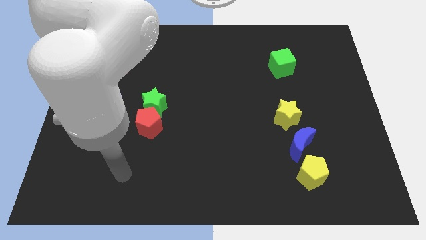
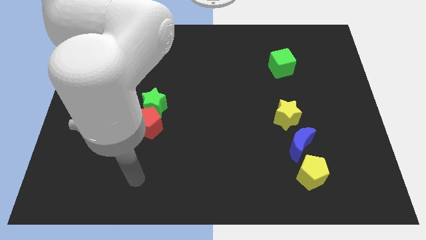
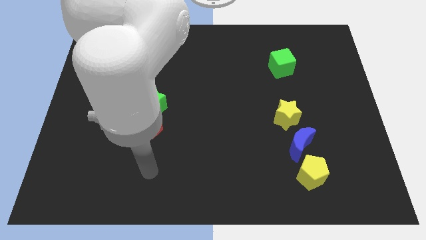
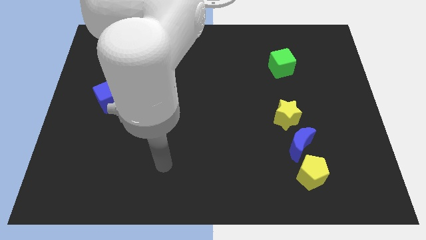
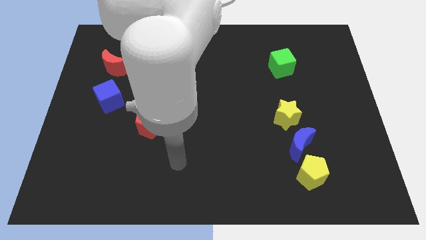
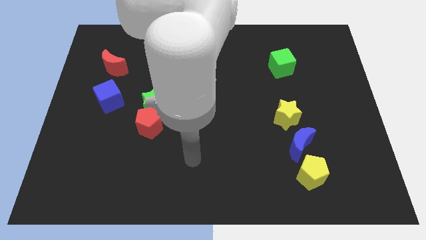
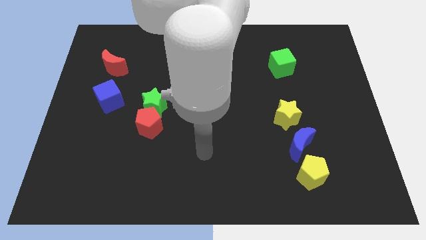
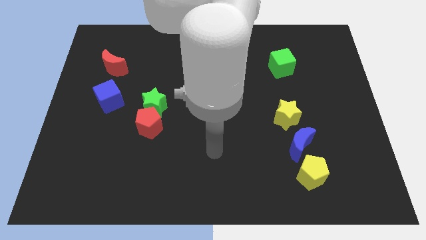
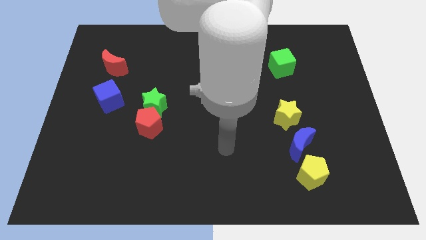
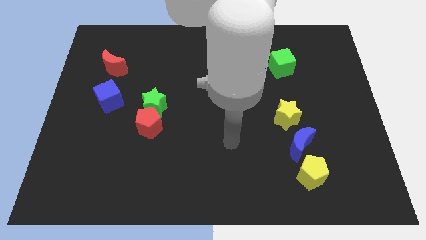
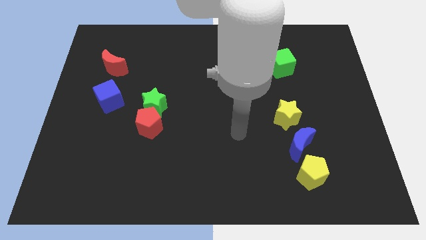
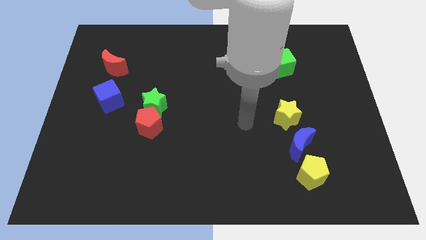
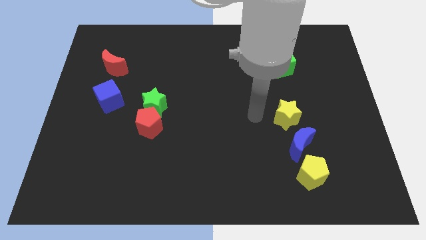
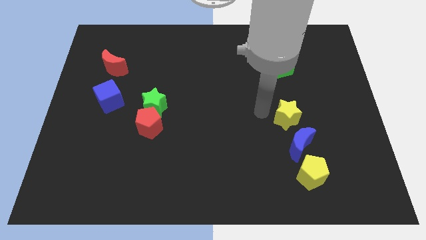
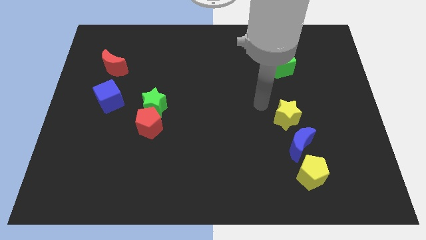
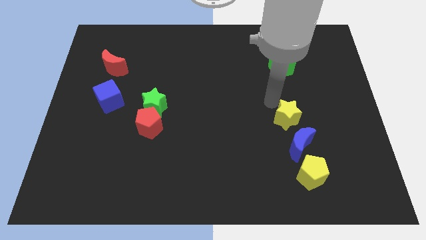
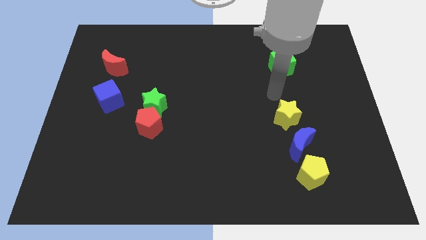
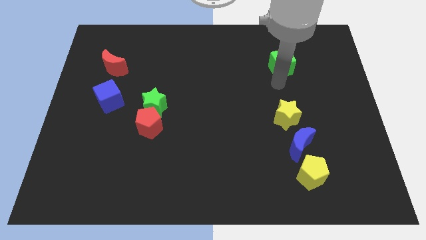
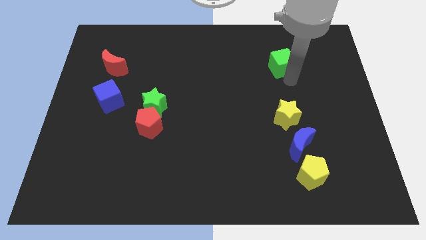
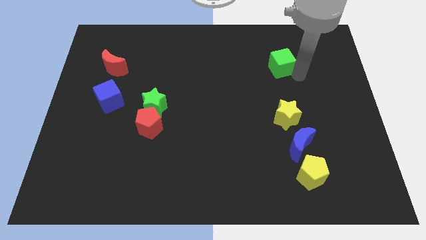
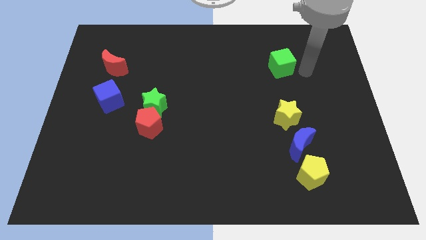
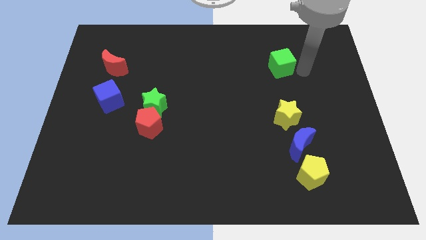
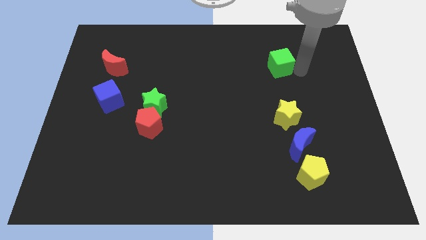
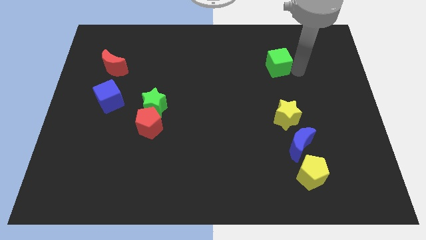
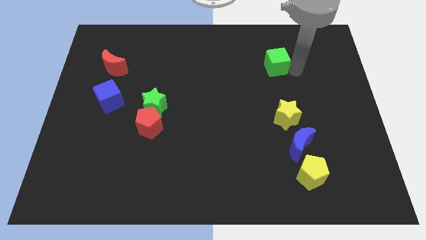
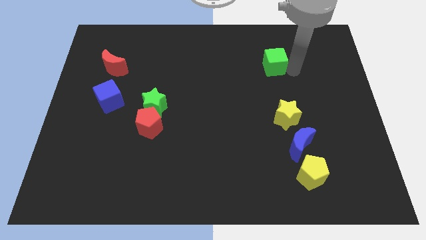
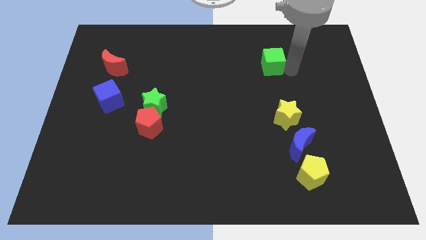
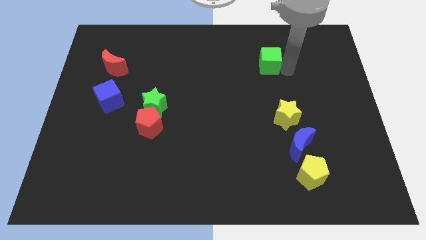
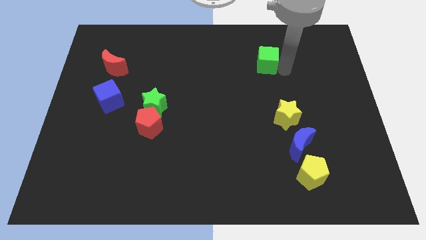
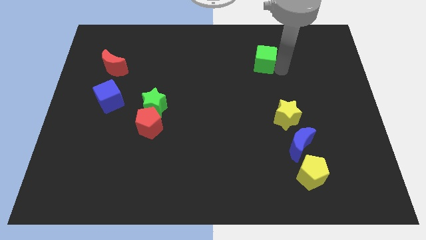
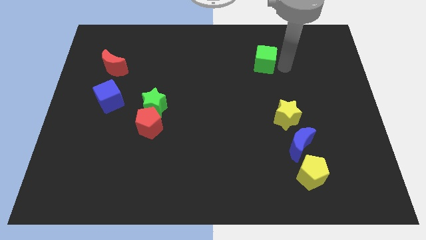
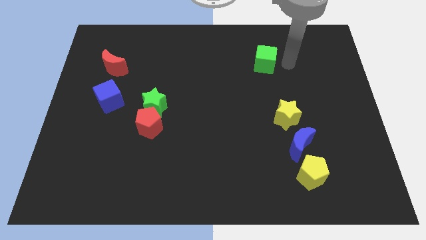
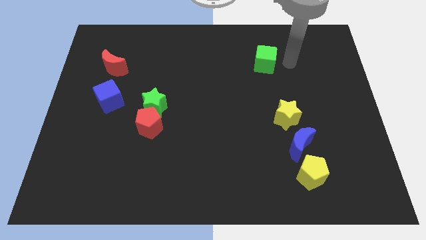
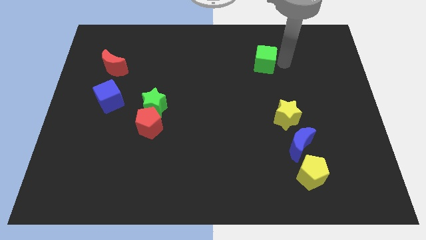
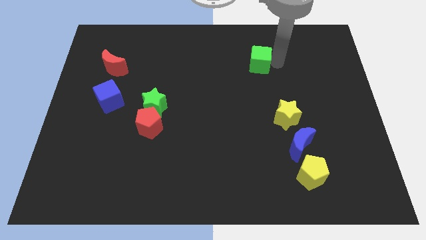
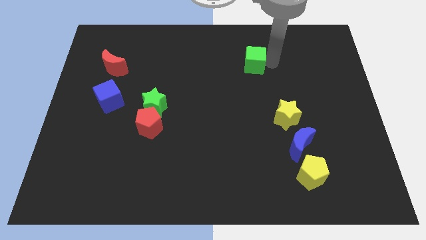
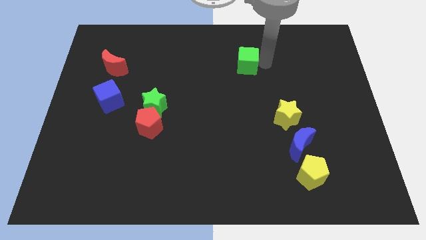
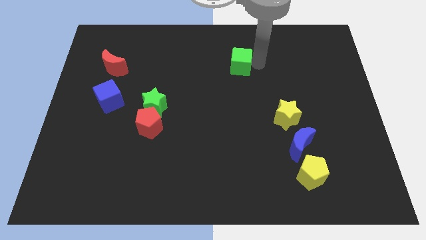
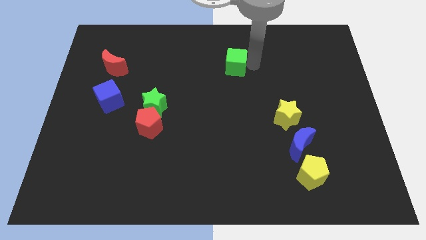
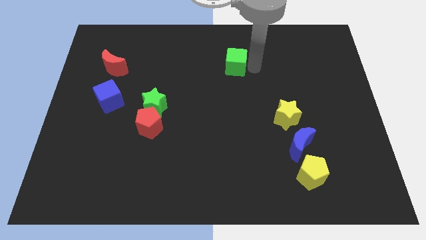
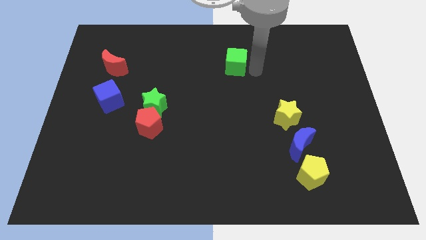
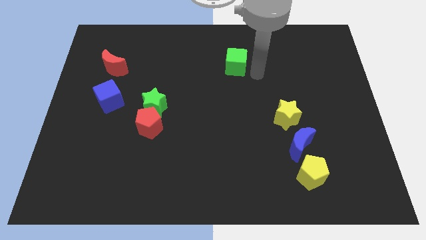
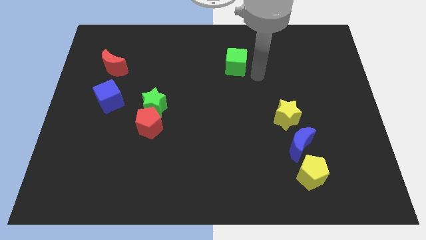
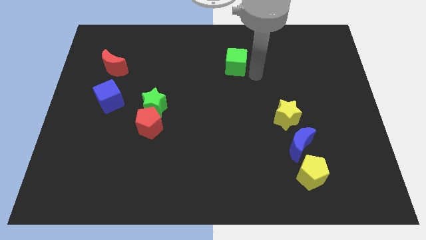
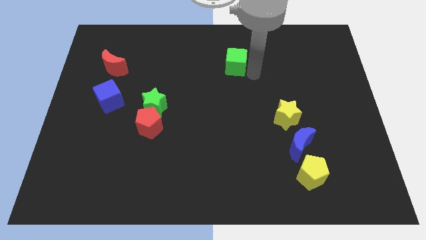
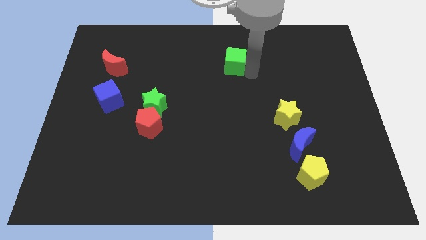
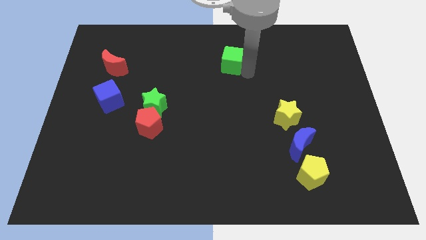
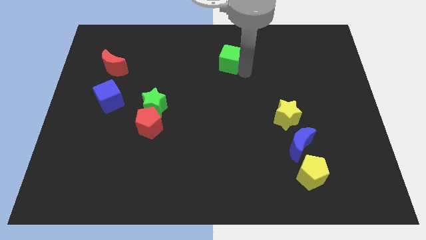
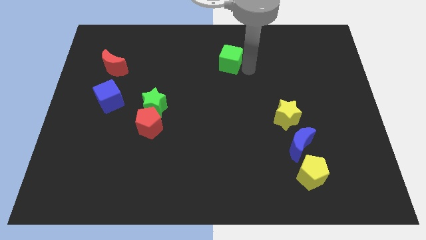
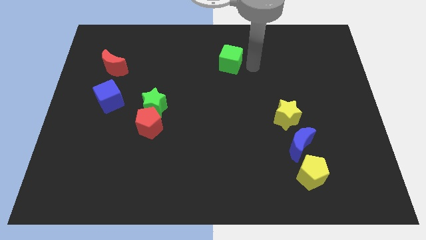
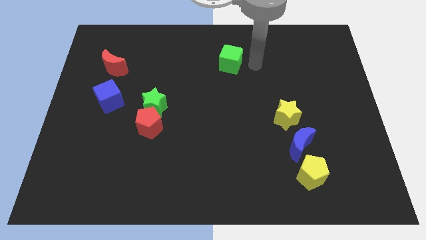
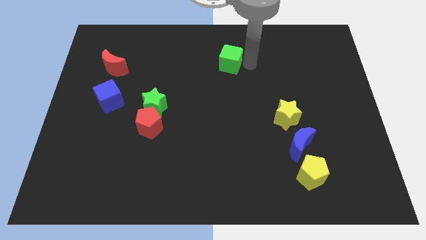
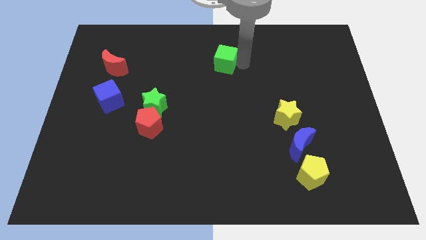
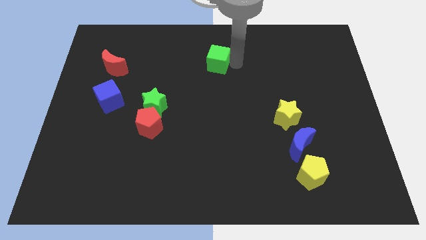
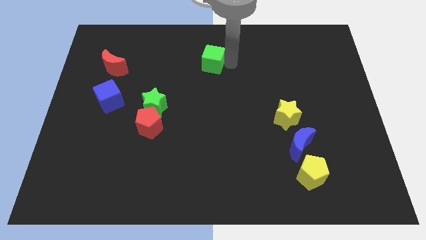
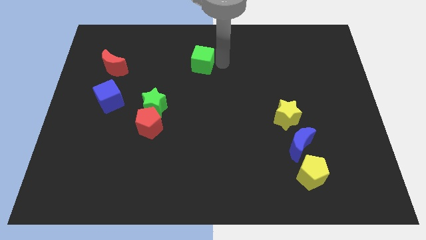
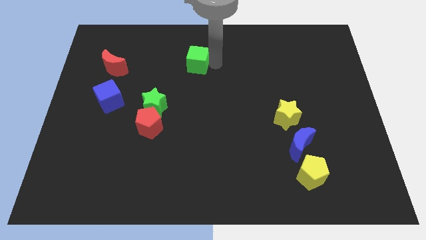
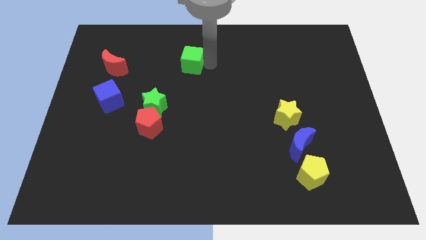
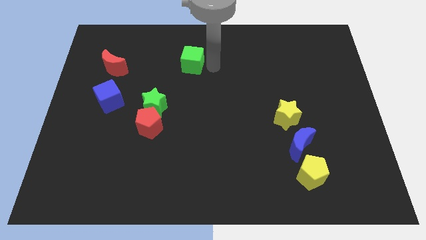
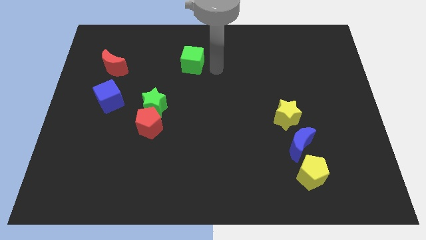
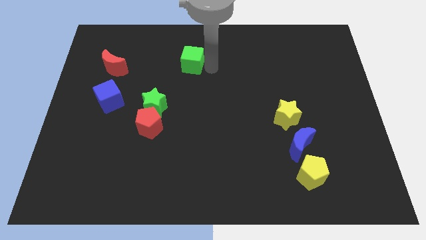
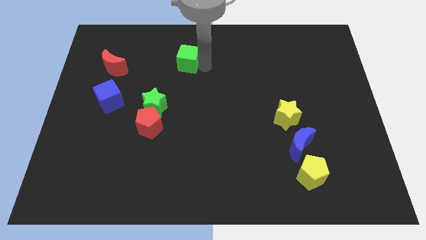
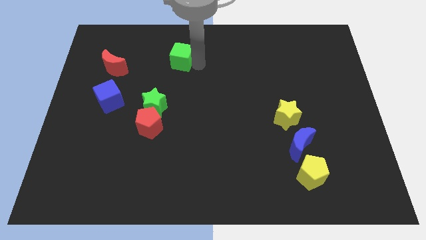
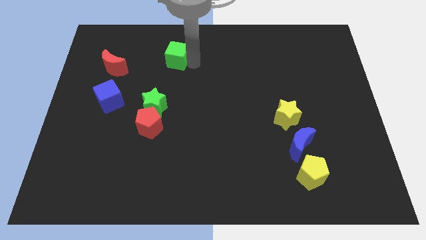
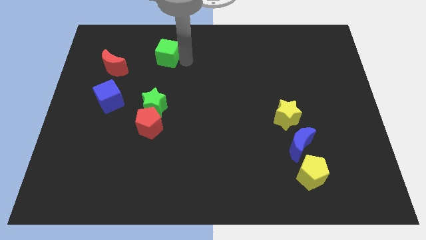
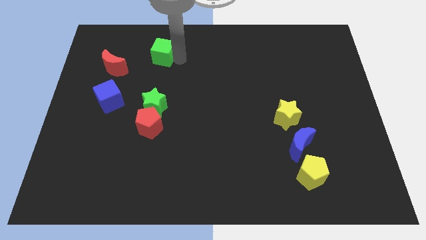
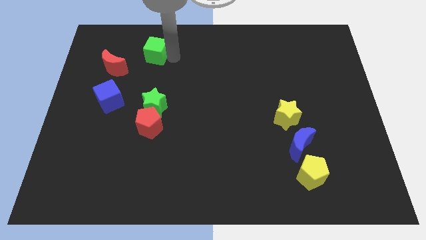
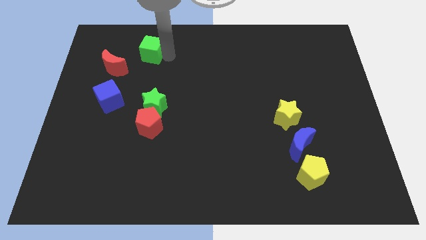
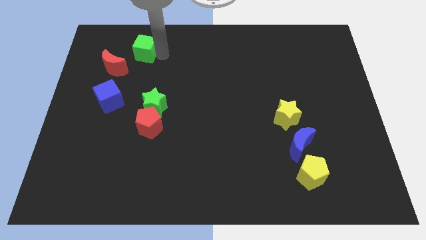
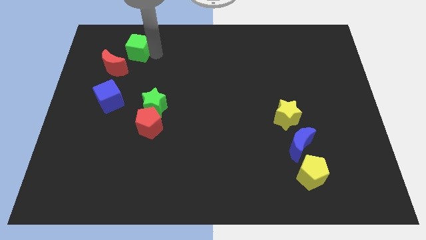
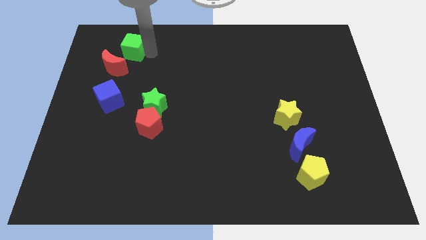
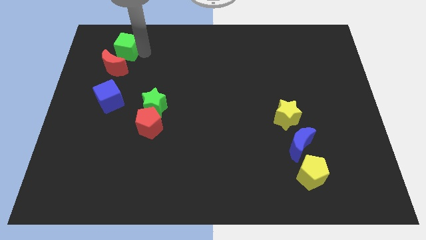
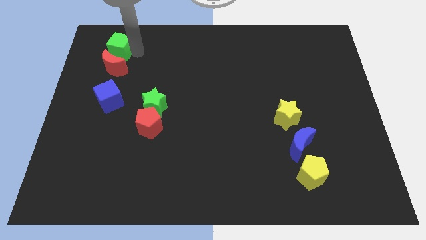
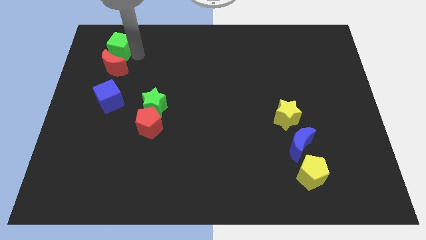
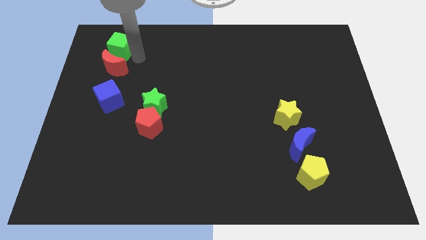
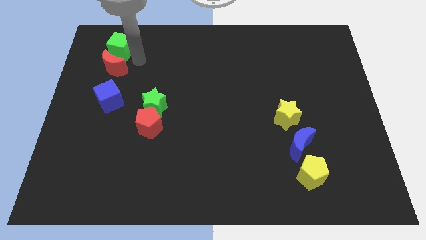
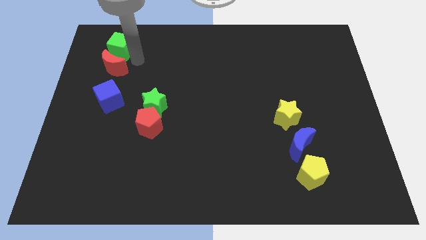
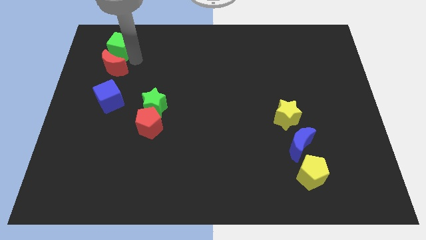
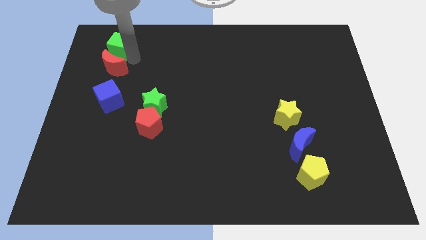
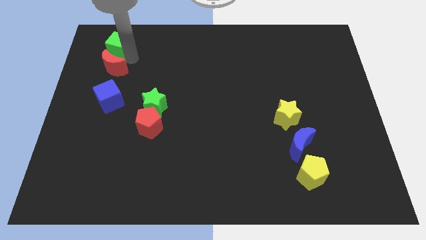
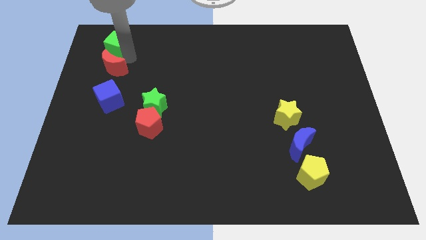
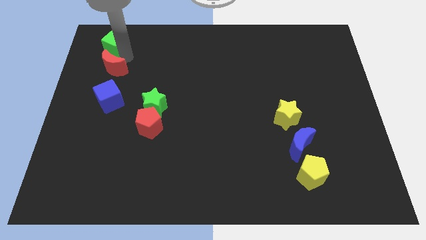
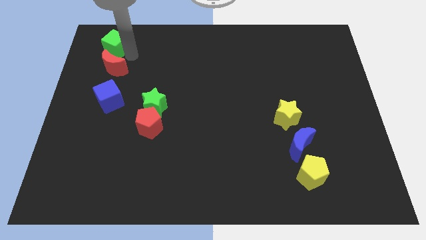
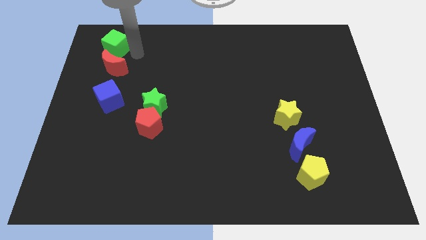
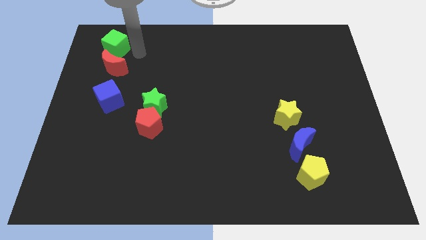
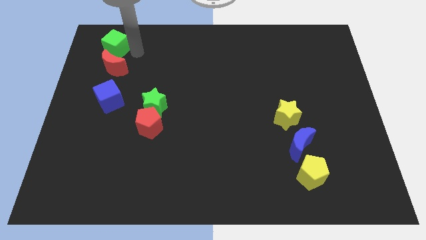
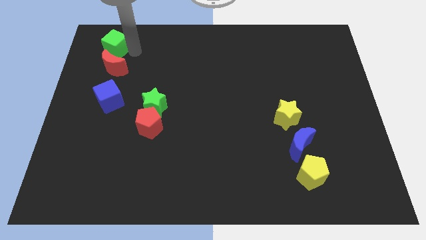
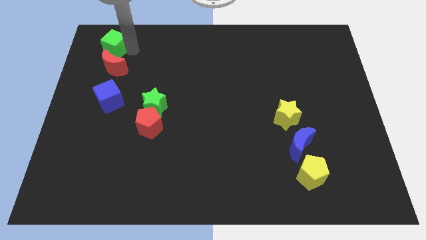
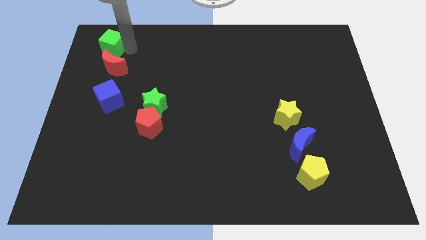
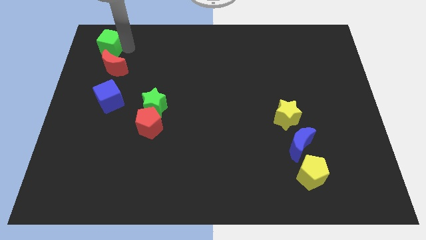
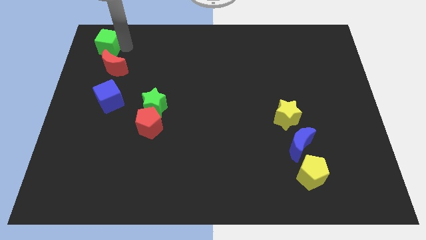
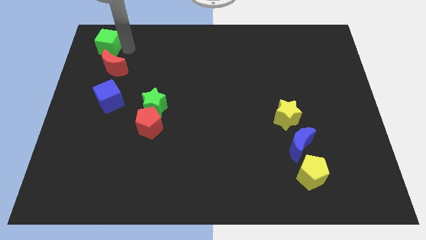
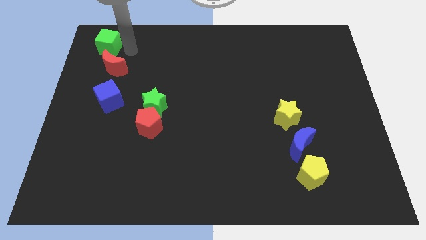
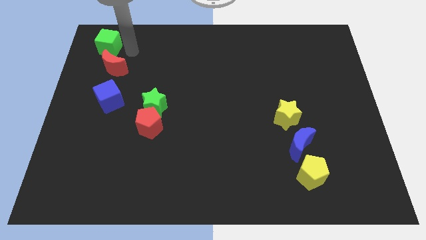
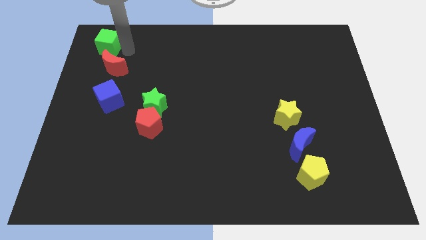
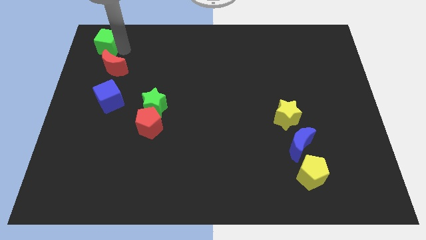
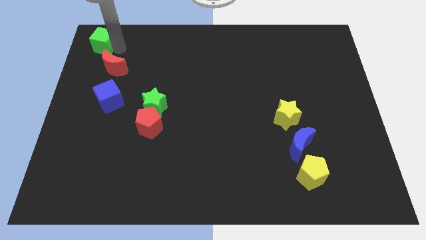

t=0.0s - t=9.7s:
move the green cube to the top left
